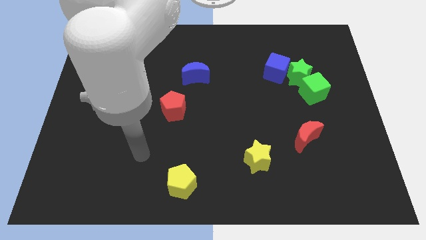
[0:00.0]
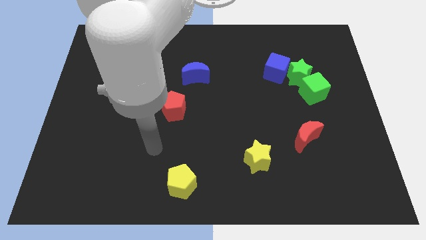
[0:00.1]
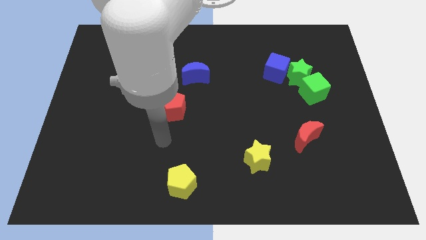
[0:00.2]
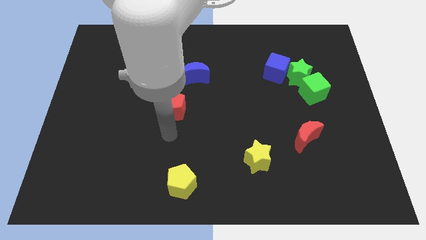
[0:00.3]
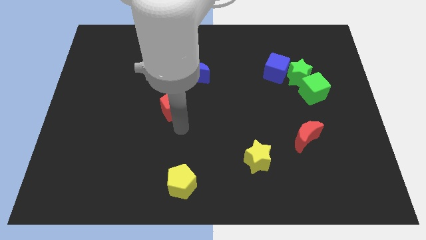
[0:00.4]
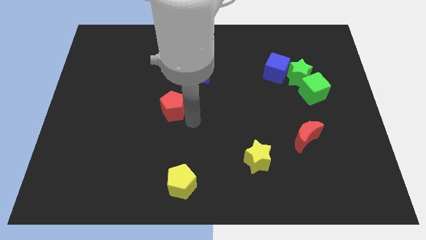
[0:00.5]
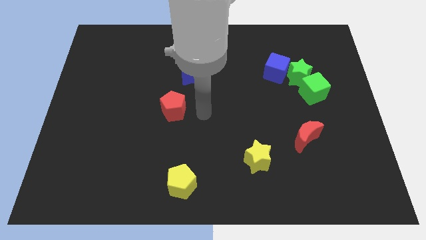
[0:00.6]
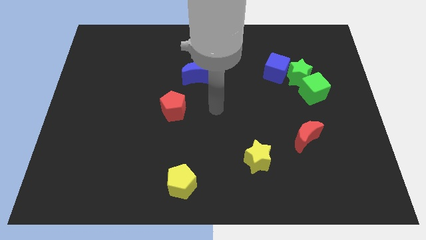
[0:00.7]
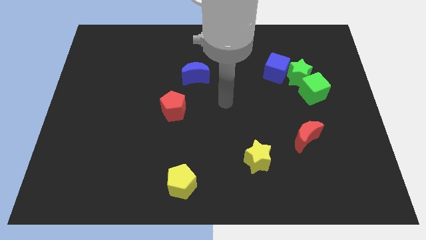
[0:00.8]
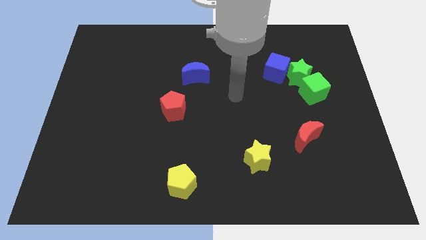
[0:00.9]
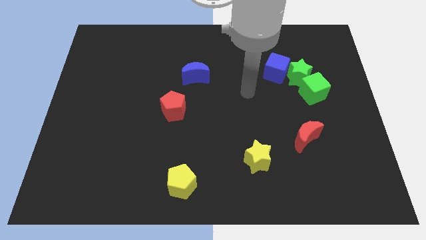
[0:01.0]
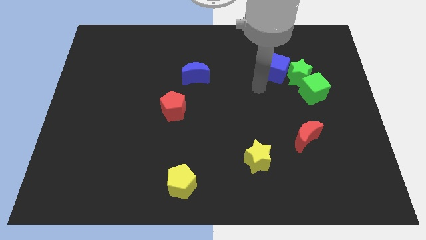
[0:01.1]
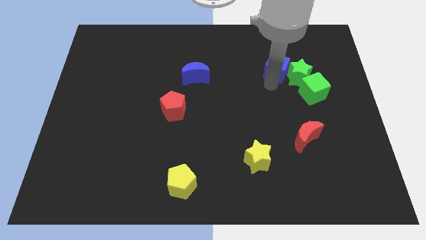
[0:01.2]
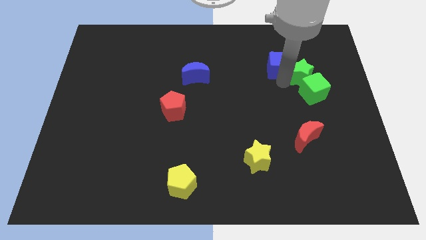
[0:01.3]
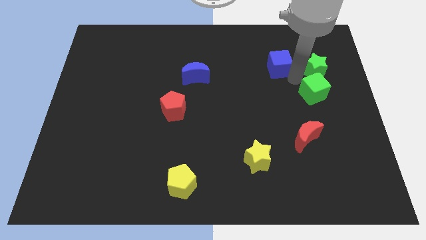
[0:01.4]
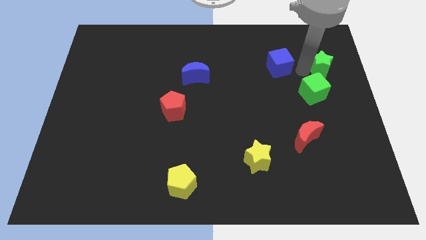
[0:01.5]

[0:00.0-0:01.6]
pull the blue cube apart from the green star

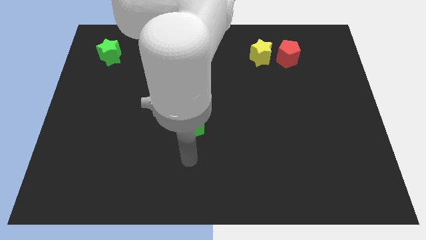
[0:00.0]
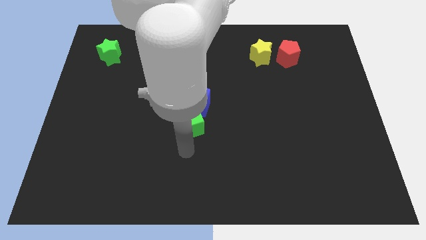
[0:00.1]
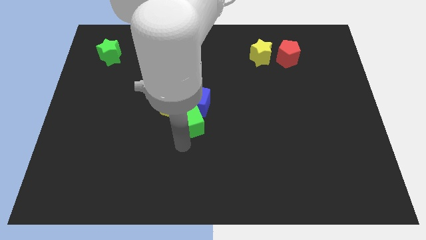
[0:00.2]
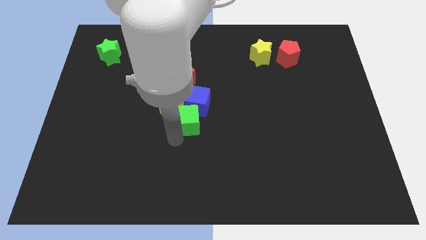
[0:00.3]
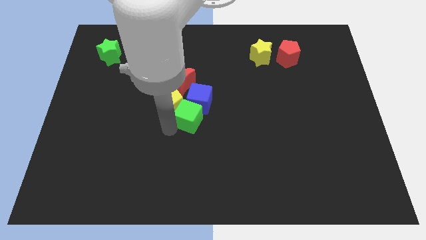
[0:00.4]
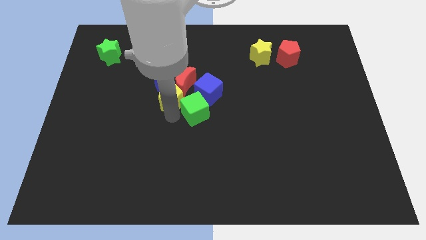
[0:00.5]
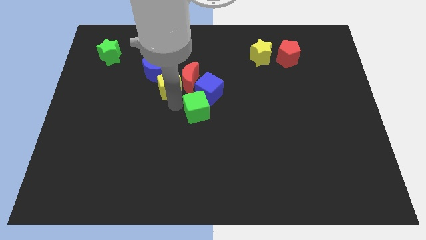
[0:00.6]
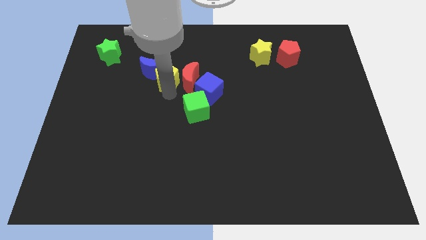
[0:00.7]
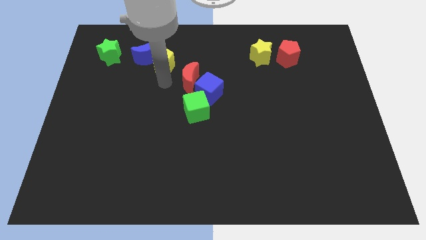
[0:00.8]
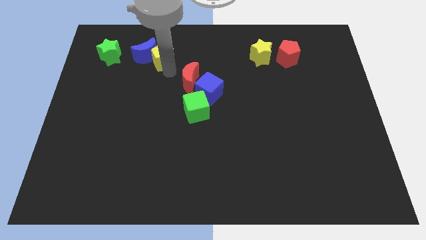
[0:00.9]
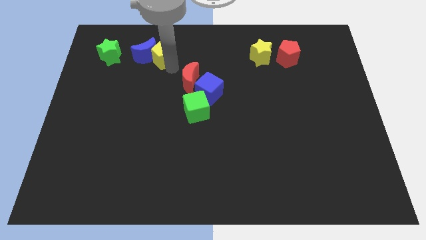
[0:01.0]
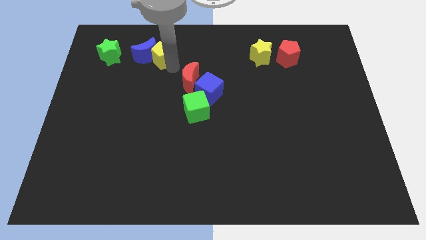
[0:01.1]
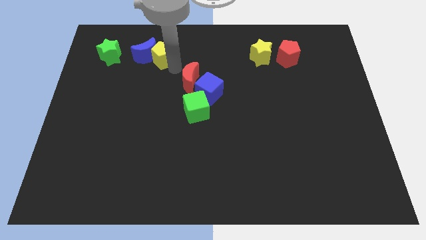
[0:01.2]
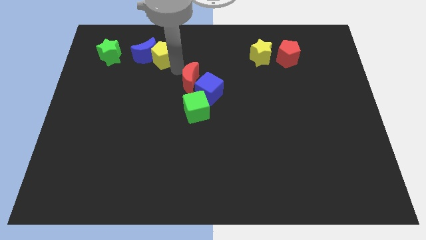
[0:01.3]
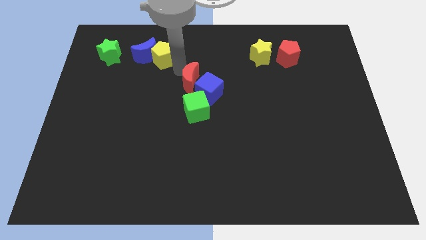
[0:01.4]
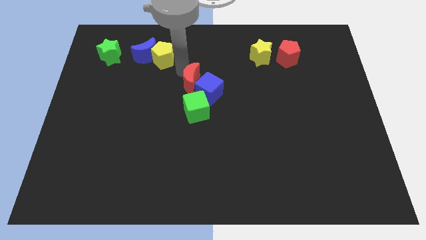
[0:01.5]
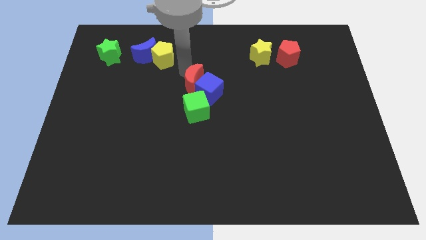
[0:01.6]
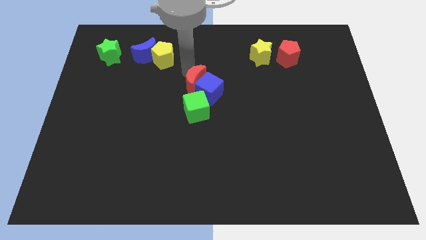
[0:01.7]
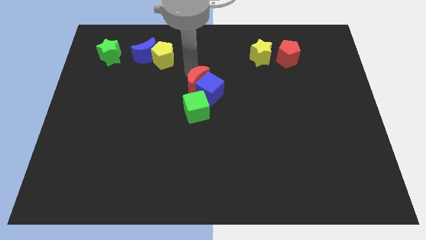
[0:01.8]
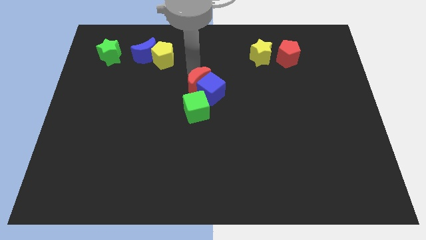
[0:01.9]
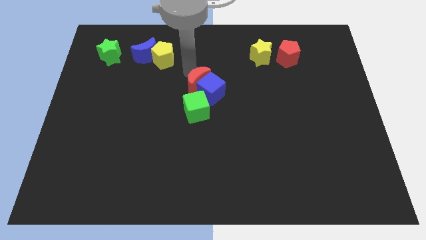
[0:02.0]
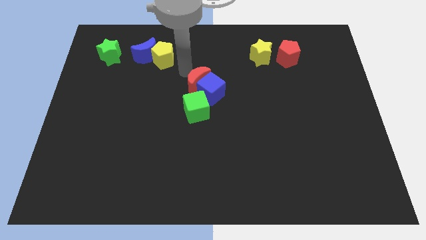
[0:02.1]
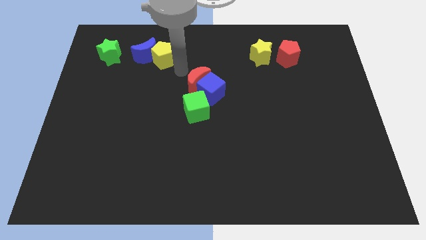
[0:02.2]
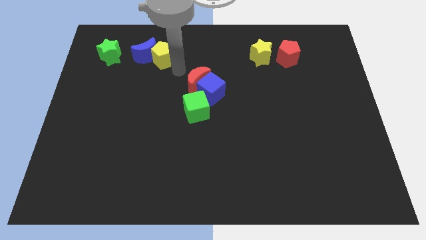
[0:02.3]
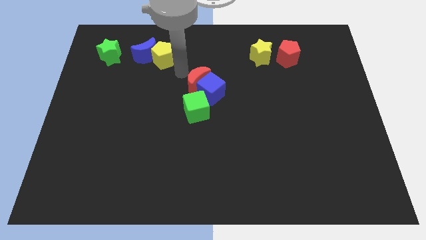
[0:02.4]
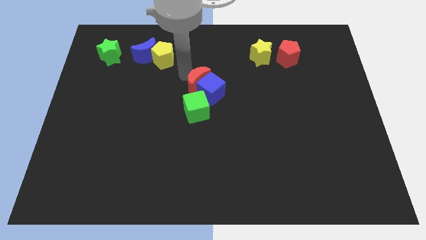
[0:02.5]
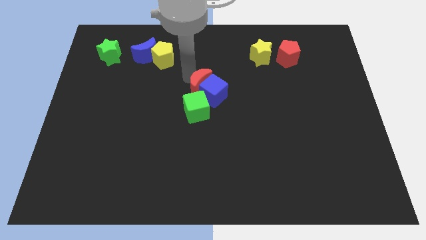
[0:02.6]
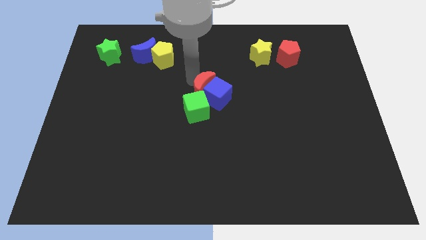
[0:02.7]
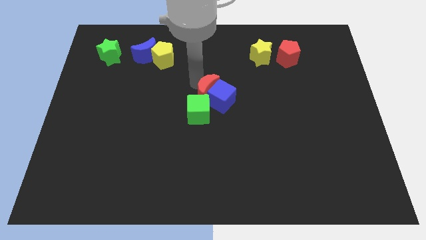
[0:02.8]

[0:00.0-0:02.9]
separate the red moon from the group of blocks

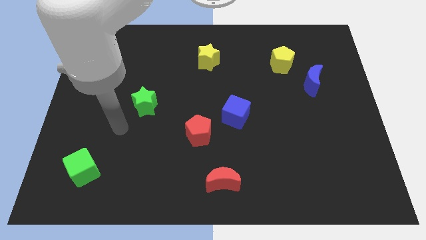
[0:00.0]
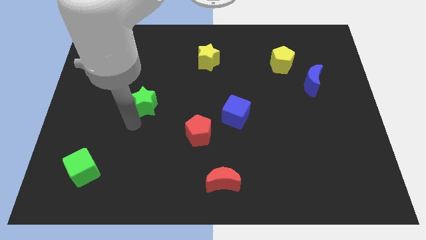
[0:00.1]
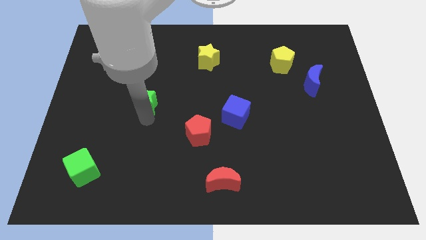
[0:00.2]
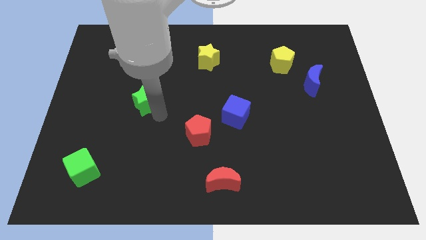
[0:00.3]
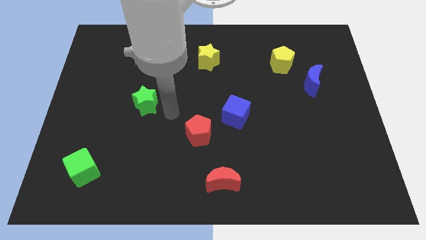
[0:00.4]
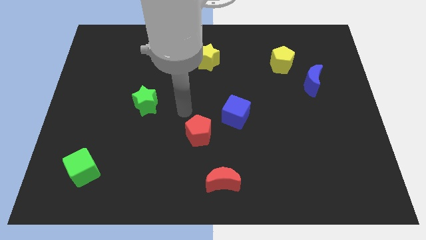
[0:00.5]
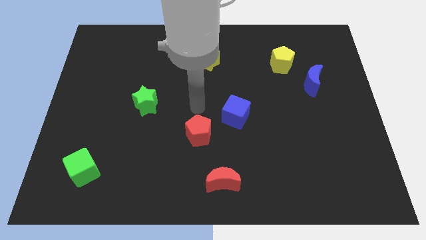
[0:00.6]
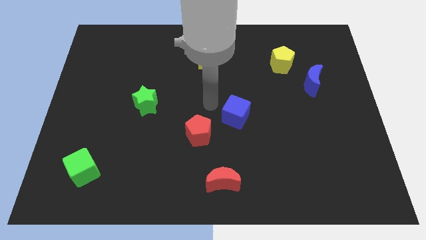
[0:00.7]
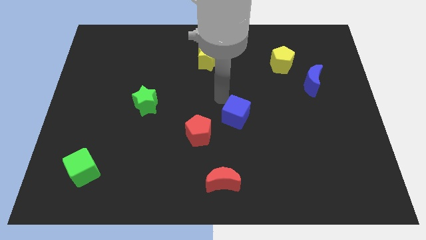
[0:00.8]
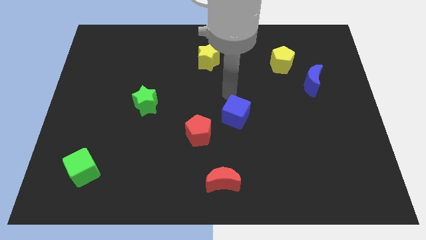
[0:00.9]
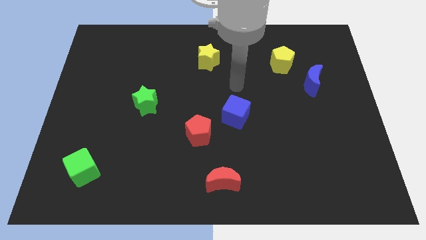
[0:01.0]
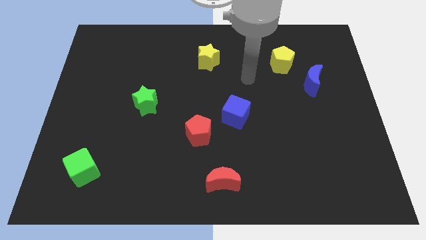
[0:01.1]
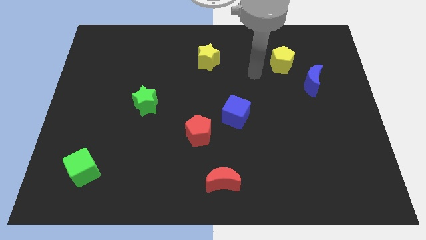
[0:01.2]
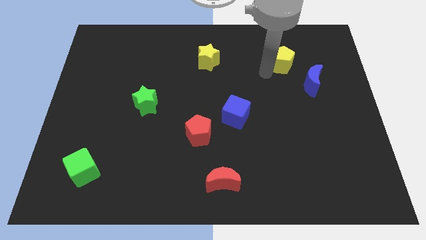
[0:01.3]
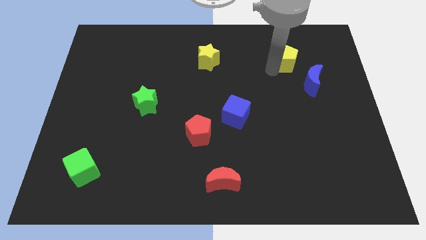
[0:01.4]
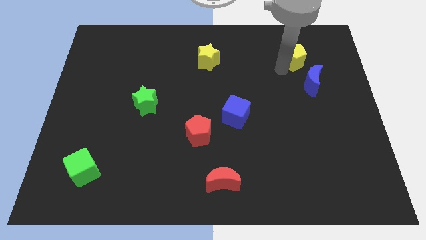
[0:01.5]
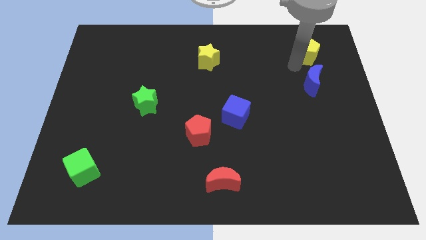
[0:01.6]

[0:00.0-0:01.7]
pull the blue moon apart from the yellow pentagon

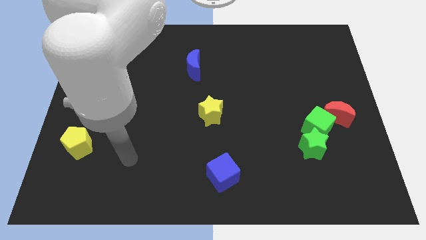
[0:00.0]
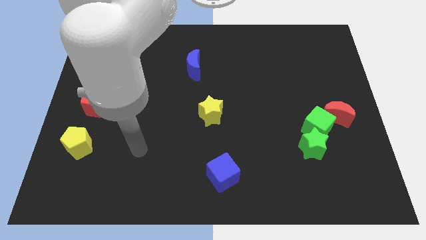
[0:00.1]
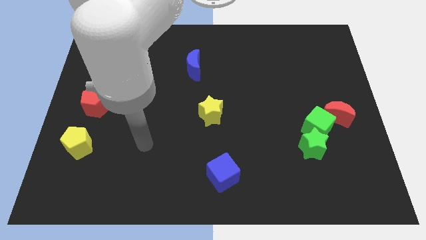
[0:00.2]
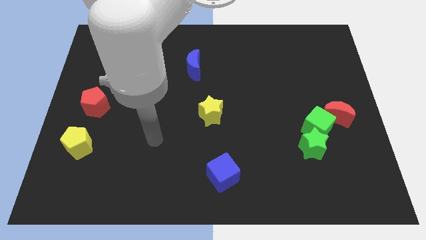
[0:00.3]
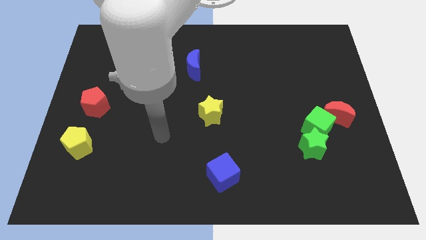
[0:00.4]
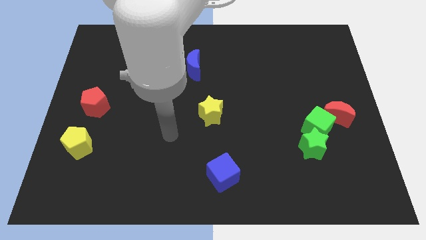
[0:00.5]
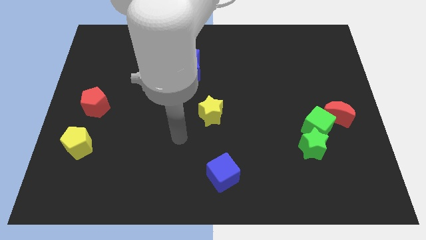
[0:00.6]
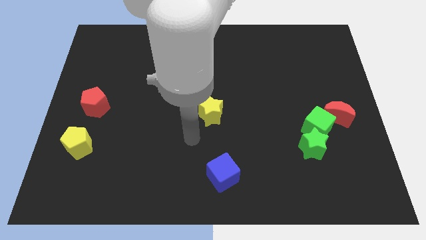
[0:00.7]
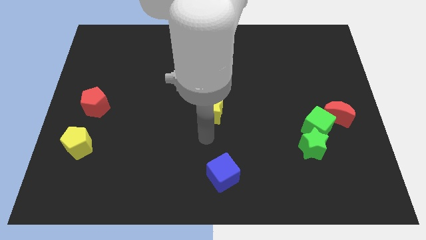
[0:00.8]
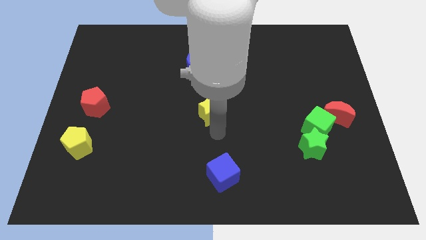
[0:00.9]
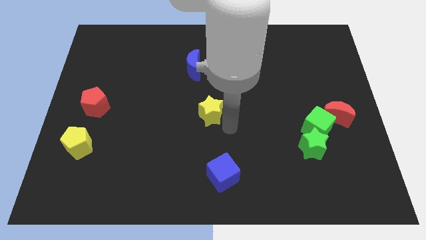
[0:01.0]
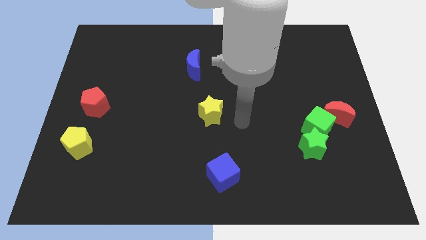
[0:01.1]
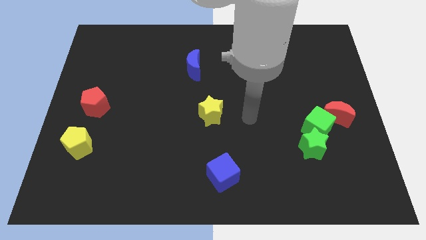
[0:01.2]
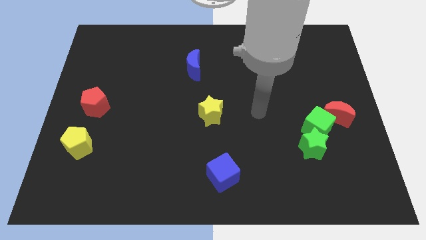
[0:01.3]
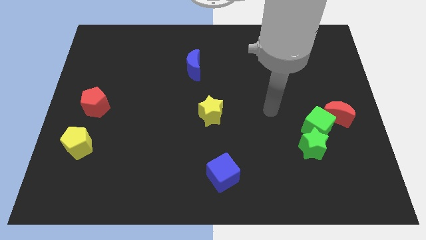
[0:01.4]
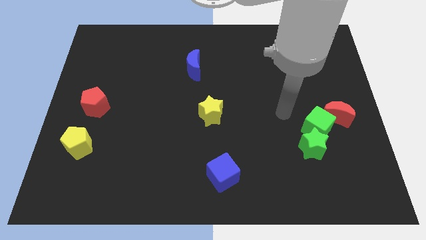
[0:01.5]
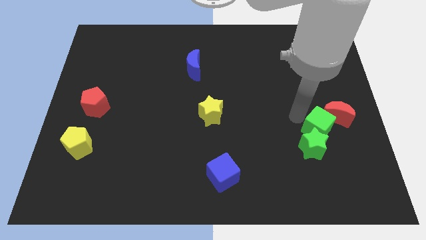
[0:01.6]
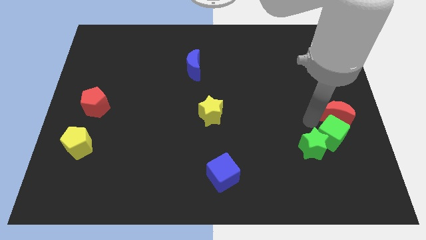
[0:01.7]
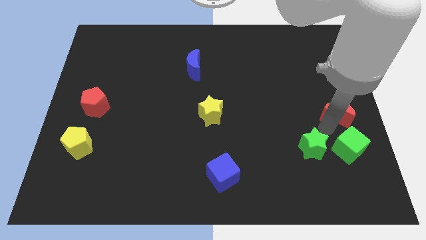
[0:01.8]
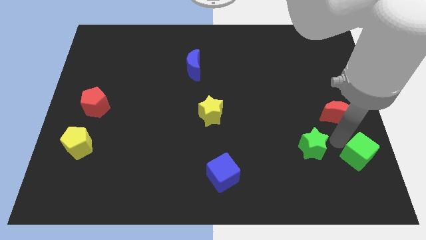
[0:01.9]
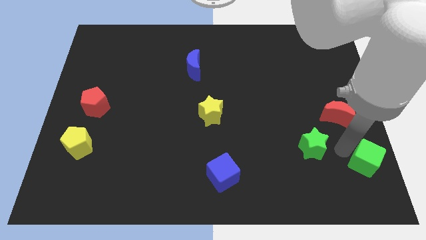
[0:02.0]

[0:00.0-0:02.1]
move the green star away from the green cube

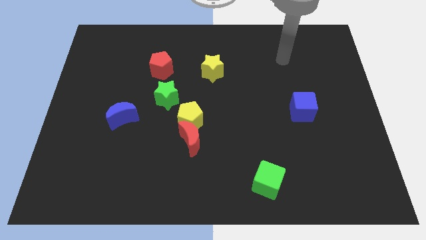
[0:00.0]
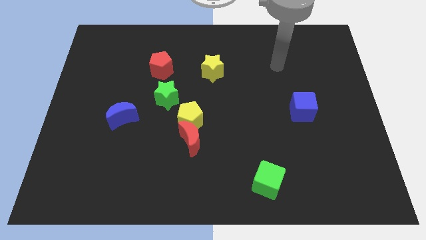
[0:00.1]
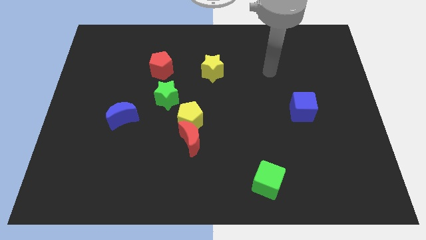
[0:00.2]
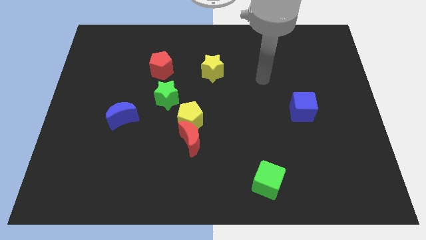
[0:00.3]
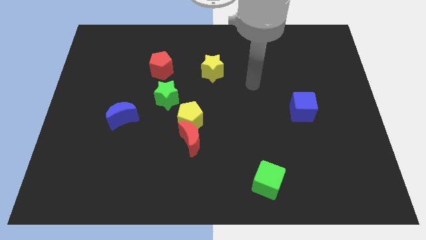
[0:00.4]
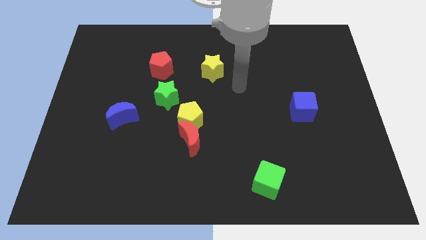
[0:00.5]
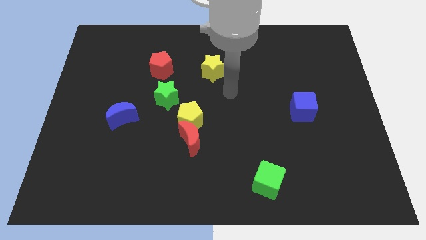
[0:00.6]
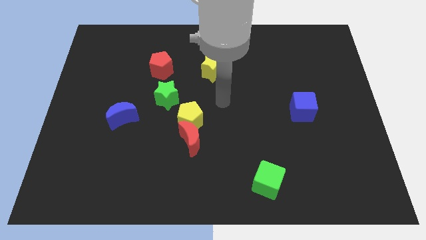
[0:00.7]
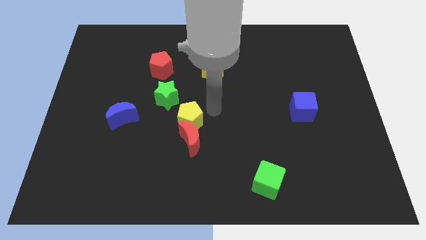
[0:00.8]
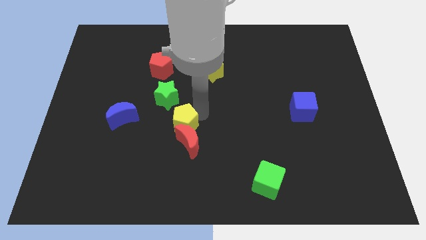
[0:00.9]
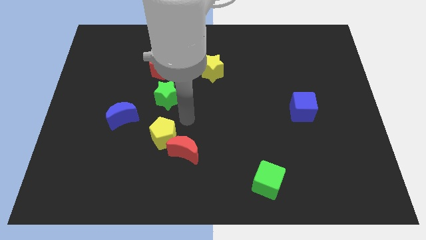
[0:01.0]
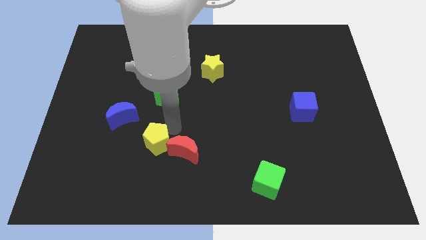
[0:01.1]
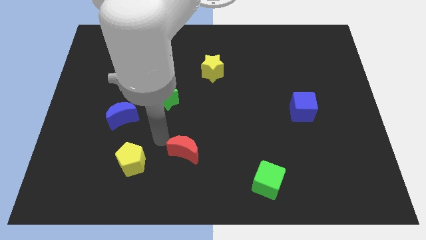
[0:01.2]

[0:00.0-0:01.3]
pull the red moon apart from the yellow pentagon
